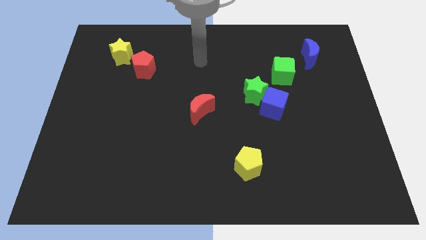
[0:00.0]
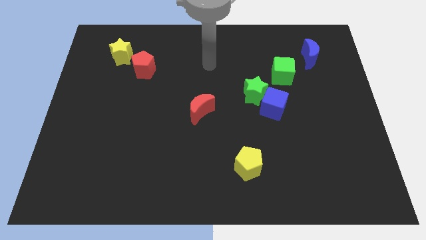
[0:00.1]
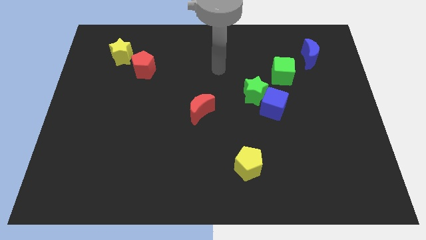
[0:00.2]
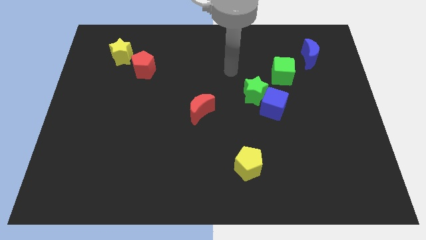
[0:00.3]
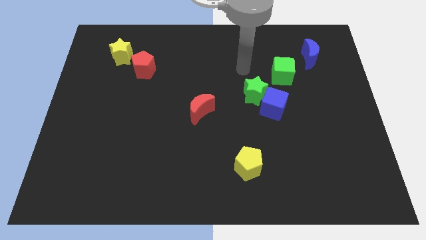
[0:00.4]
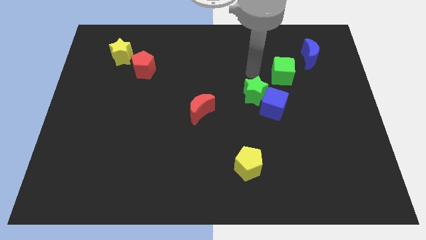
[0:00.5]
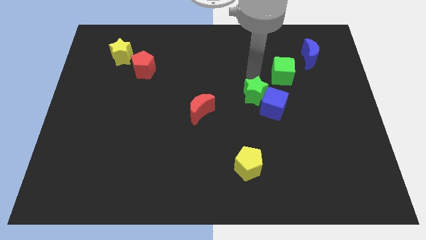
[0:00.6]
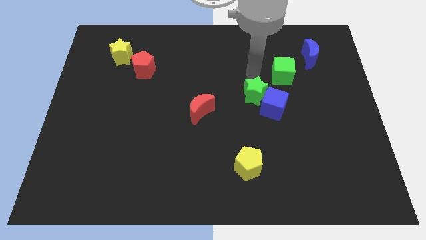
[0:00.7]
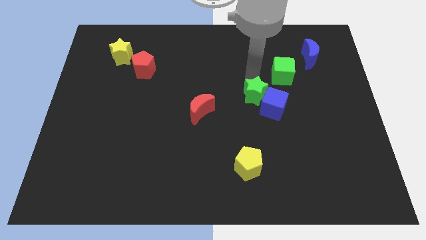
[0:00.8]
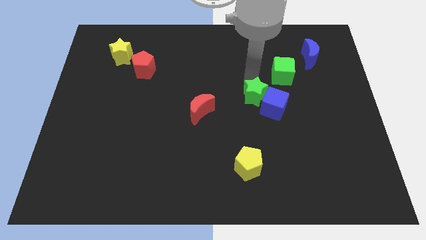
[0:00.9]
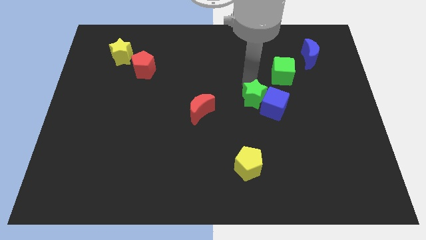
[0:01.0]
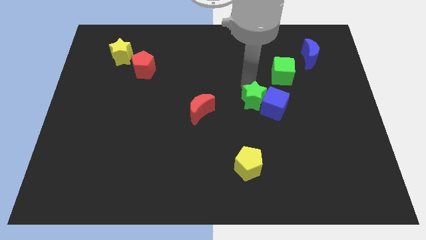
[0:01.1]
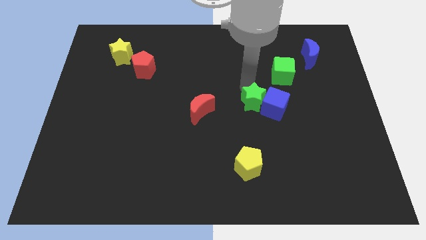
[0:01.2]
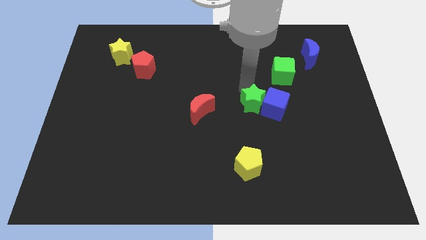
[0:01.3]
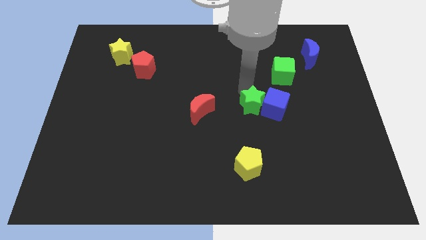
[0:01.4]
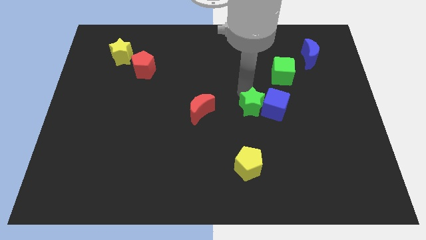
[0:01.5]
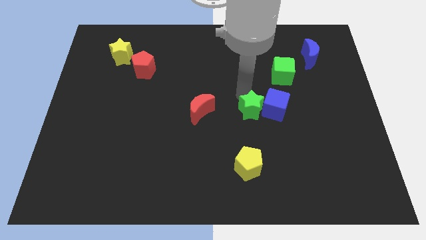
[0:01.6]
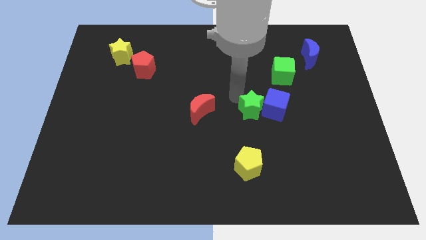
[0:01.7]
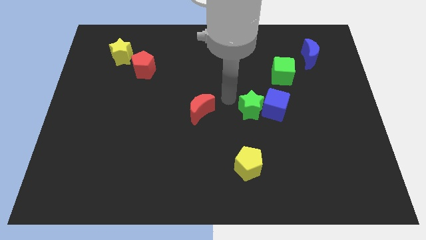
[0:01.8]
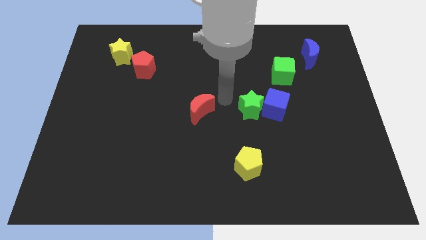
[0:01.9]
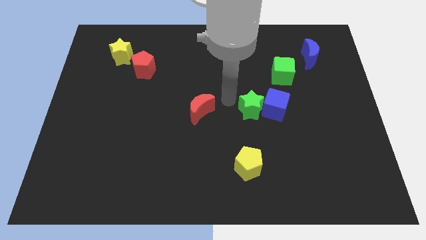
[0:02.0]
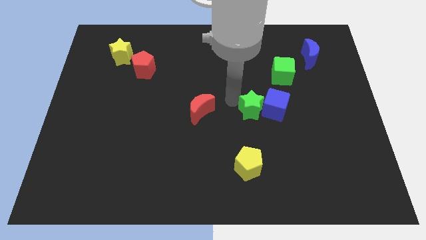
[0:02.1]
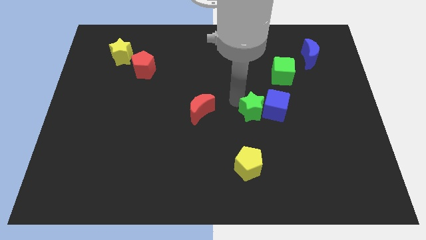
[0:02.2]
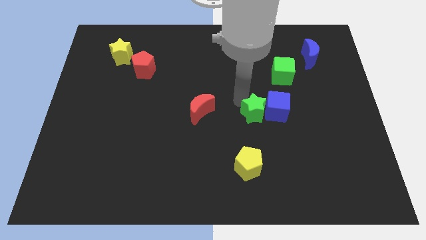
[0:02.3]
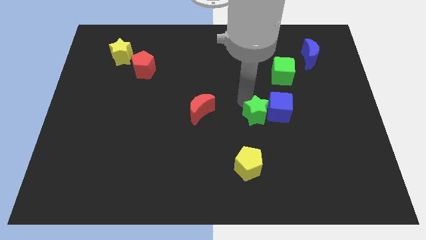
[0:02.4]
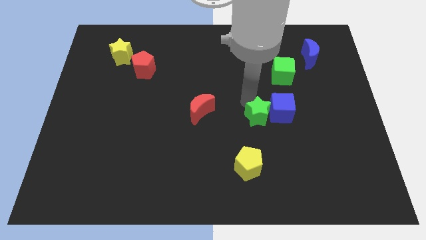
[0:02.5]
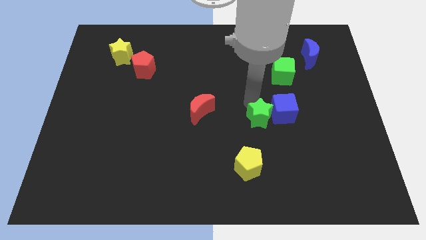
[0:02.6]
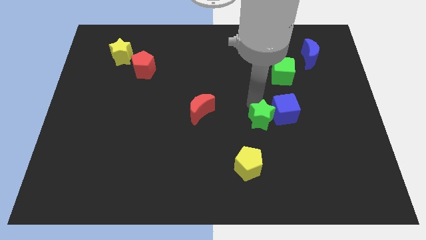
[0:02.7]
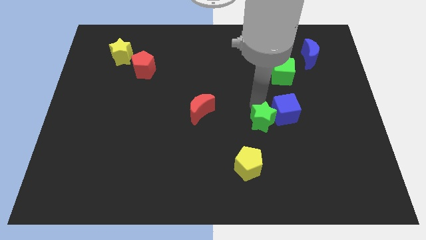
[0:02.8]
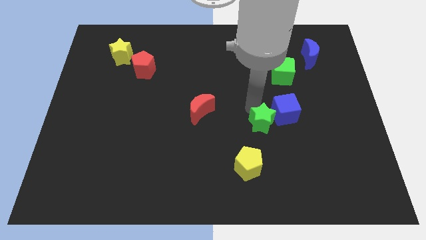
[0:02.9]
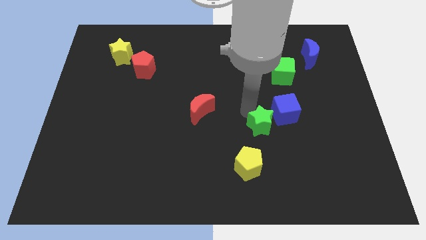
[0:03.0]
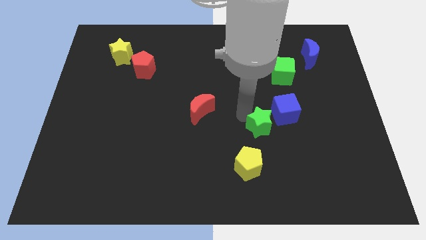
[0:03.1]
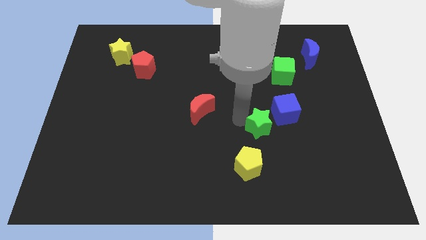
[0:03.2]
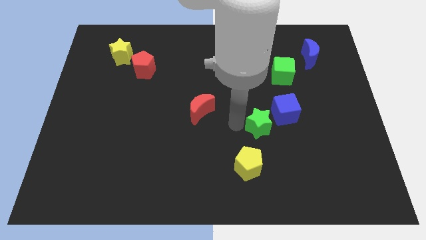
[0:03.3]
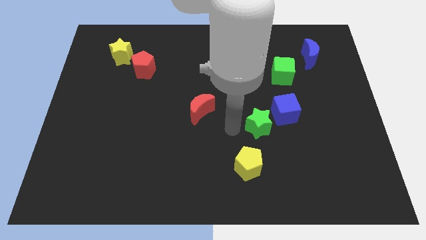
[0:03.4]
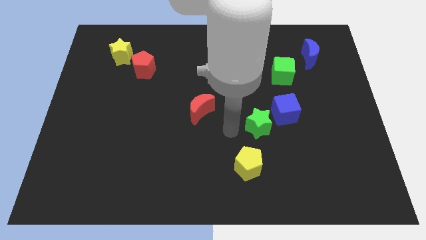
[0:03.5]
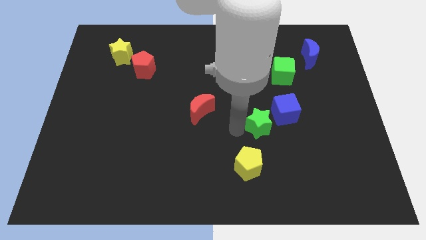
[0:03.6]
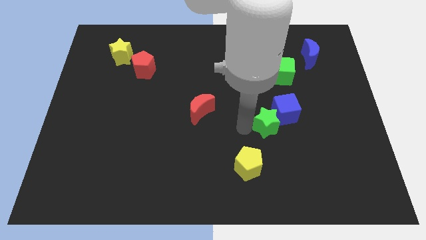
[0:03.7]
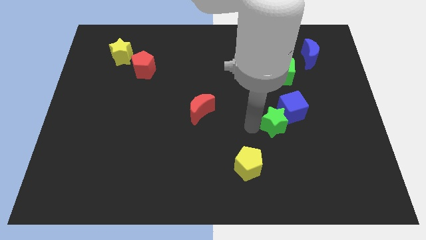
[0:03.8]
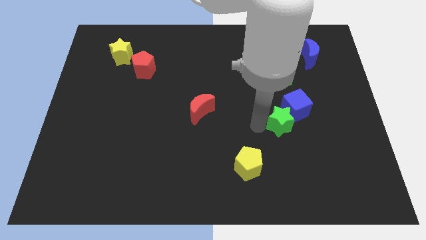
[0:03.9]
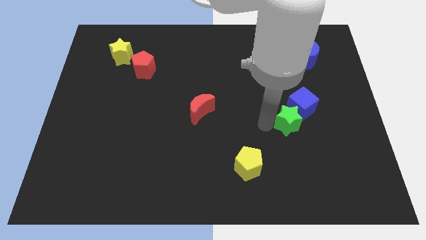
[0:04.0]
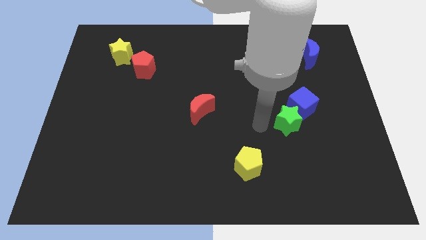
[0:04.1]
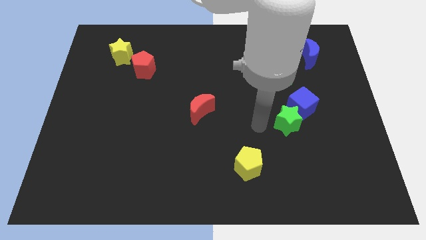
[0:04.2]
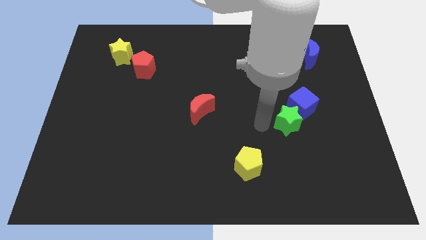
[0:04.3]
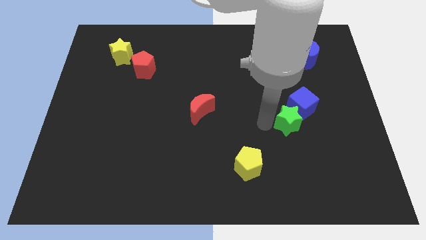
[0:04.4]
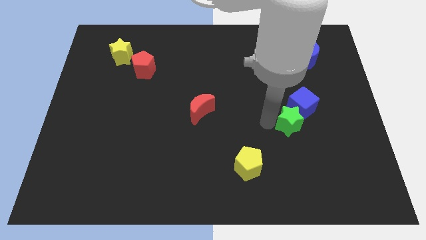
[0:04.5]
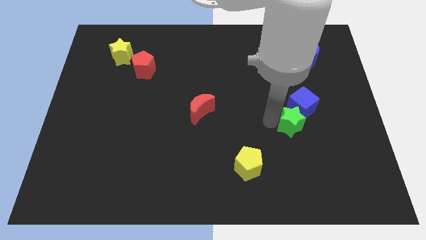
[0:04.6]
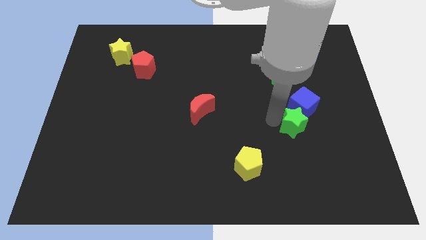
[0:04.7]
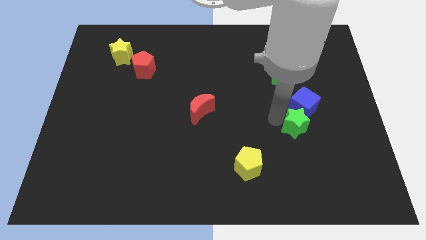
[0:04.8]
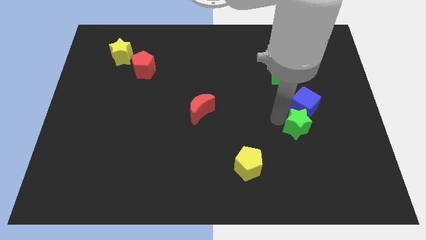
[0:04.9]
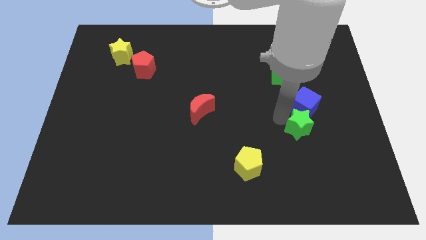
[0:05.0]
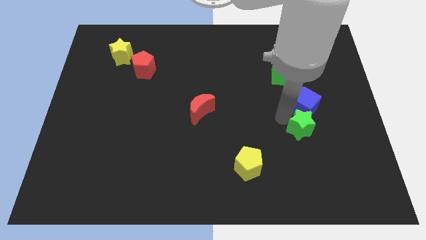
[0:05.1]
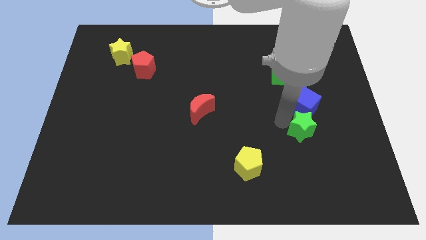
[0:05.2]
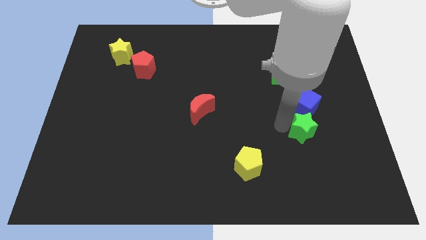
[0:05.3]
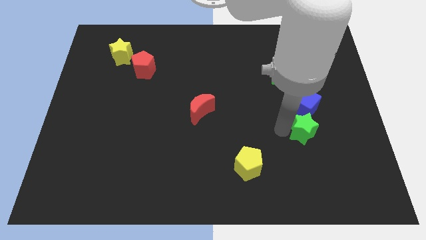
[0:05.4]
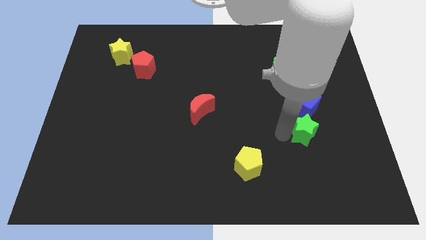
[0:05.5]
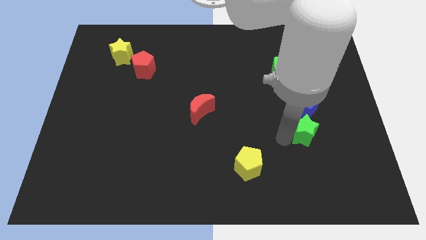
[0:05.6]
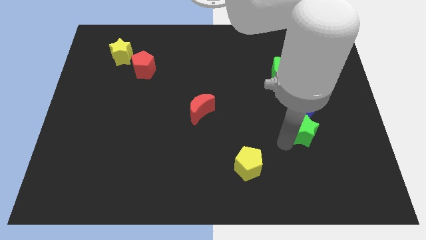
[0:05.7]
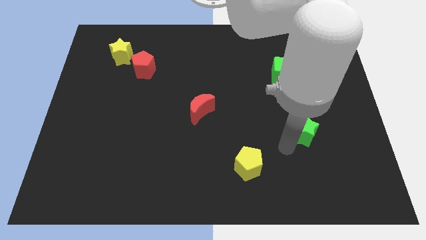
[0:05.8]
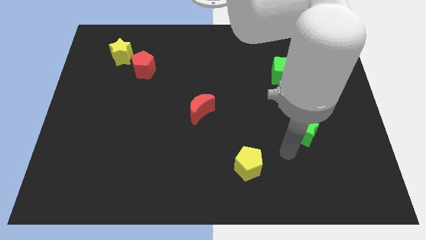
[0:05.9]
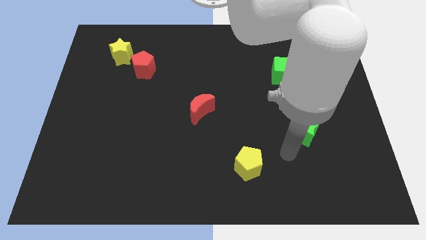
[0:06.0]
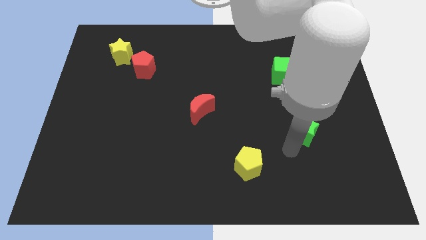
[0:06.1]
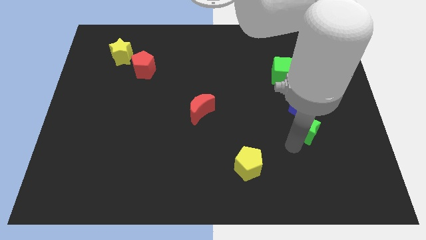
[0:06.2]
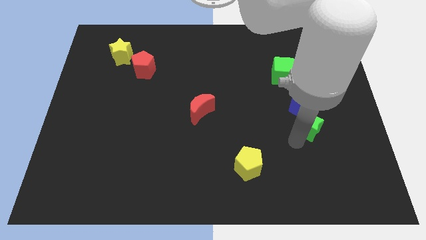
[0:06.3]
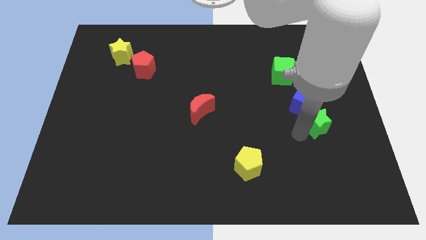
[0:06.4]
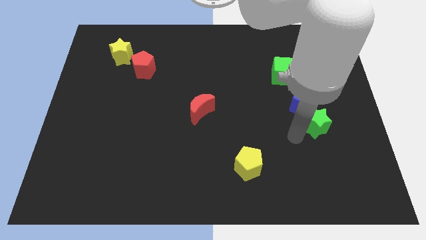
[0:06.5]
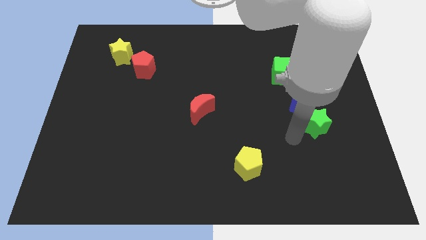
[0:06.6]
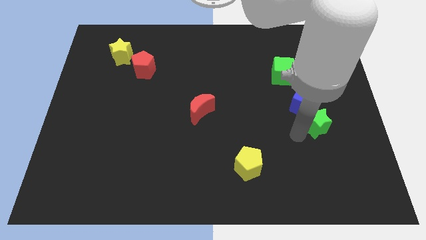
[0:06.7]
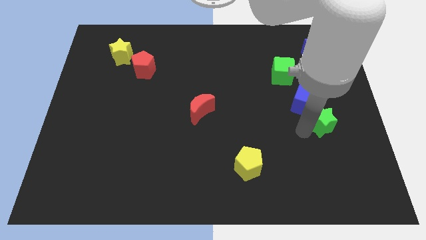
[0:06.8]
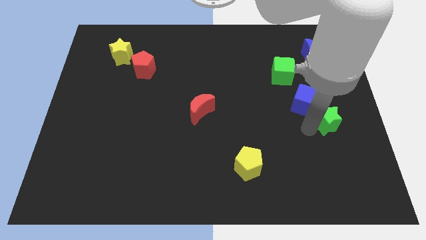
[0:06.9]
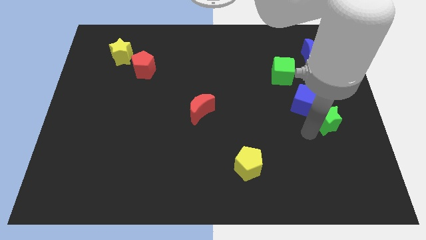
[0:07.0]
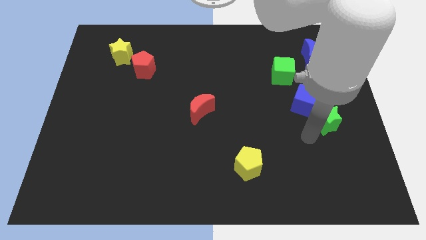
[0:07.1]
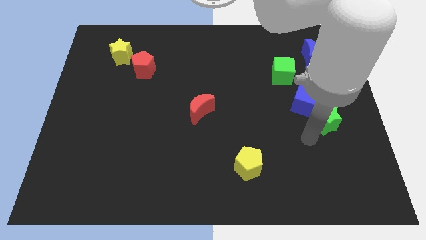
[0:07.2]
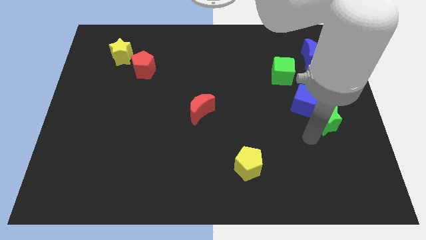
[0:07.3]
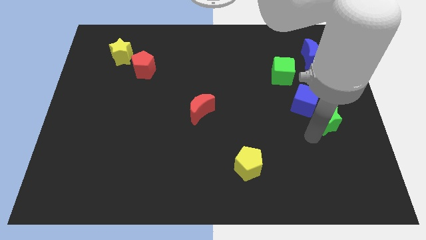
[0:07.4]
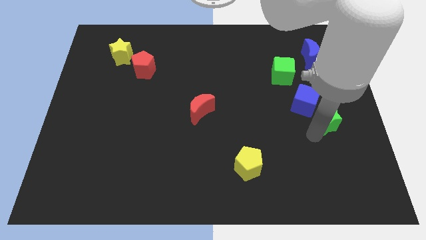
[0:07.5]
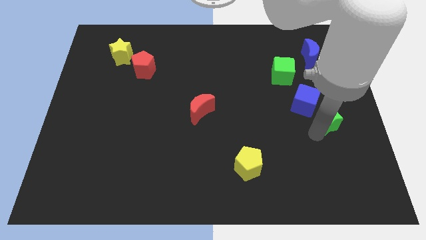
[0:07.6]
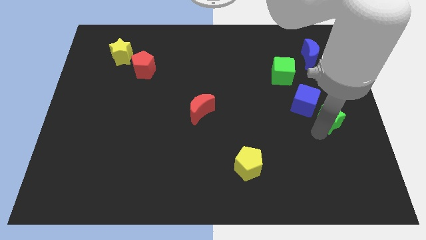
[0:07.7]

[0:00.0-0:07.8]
put the green star to the center right
